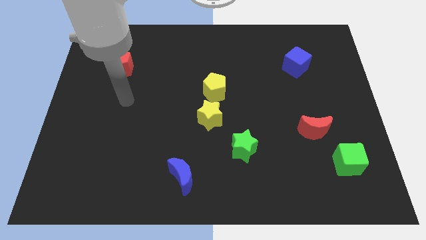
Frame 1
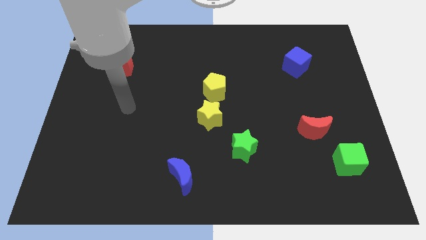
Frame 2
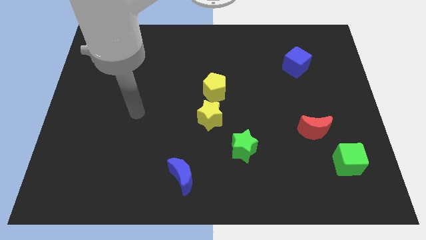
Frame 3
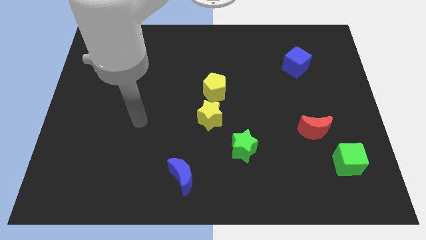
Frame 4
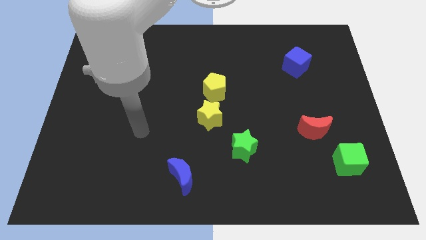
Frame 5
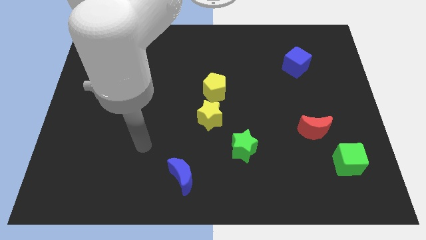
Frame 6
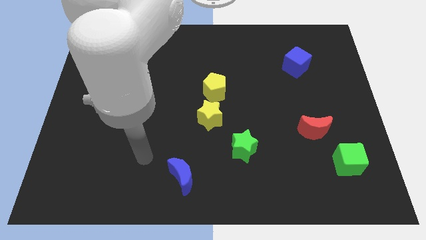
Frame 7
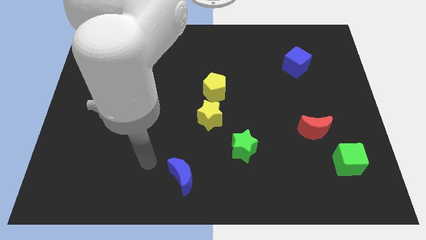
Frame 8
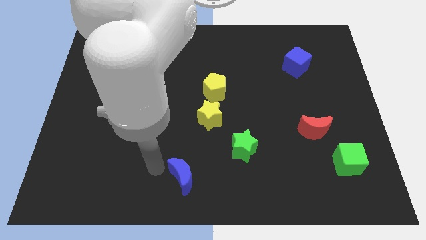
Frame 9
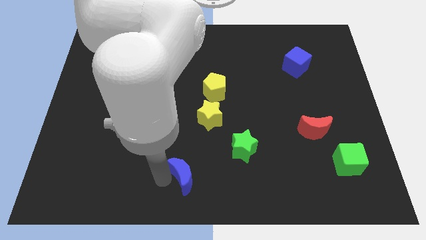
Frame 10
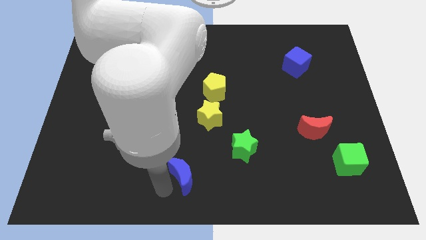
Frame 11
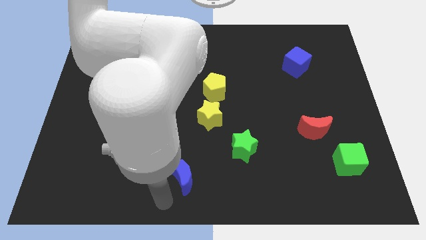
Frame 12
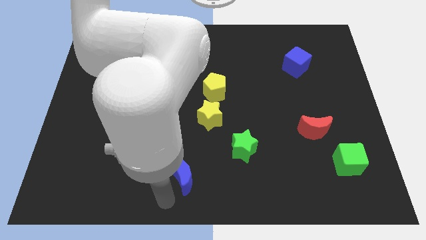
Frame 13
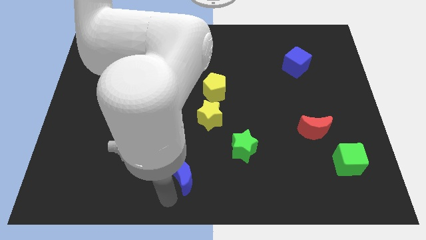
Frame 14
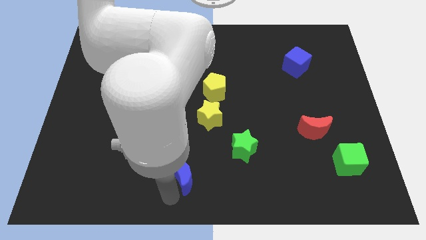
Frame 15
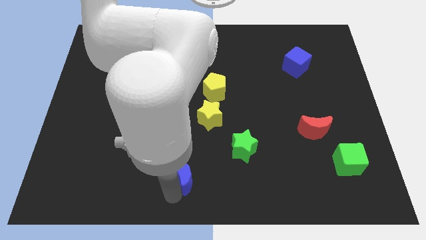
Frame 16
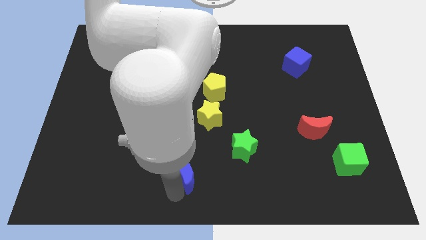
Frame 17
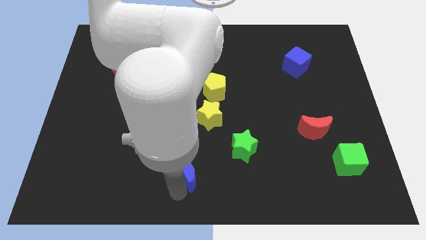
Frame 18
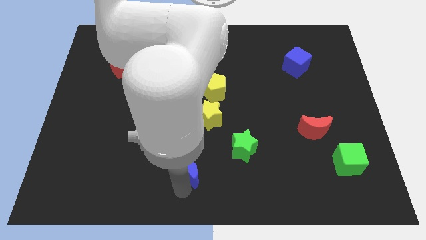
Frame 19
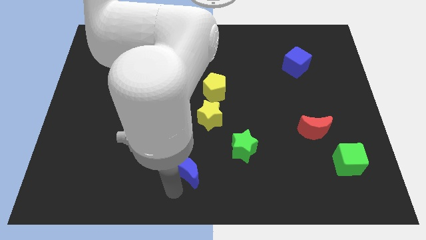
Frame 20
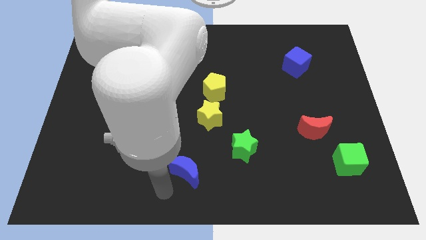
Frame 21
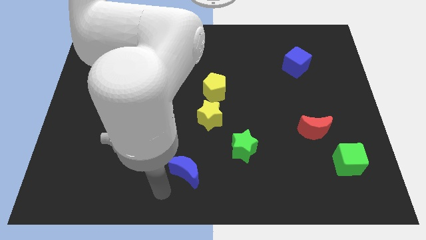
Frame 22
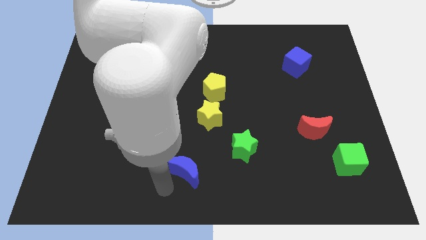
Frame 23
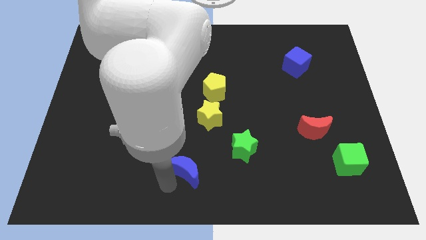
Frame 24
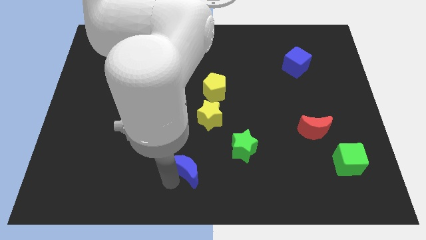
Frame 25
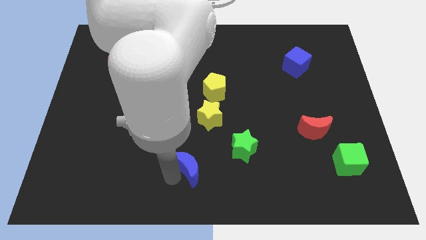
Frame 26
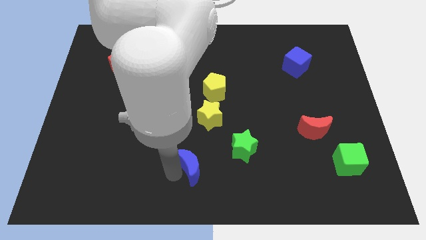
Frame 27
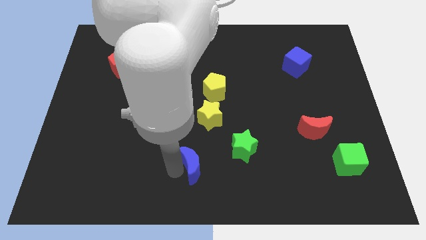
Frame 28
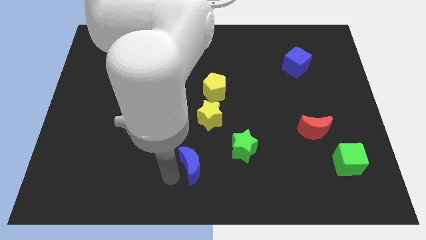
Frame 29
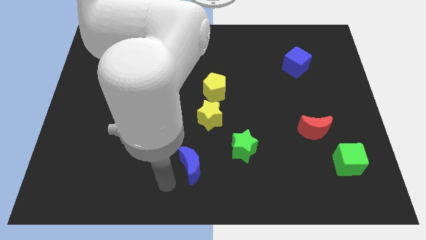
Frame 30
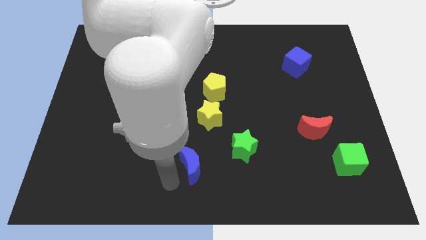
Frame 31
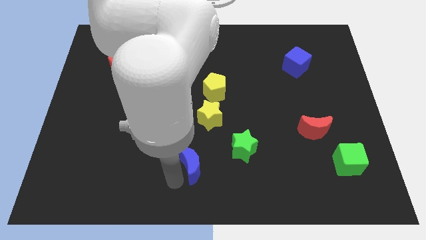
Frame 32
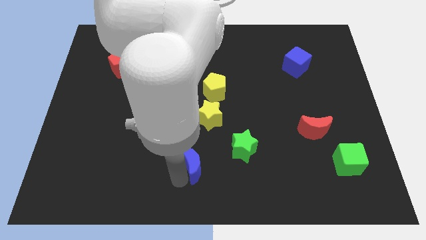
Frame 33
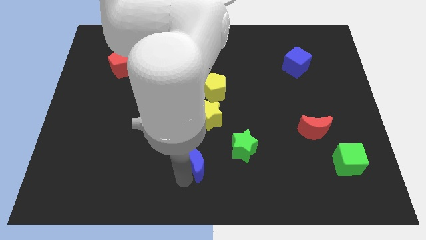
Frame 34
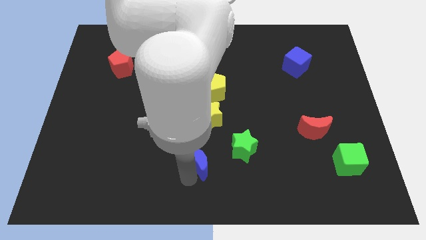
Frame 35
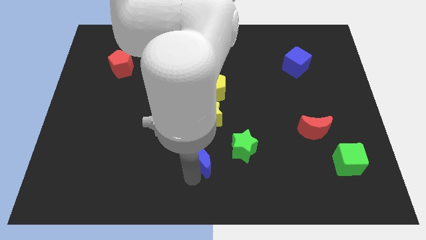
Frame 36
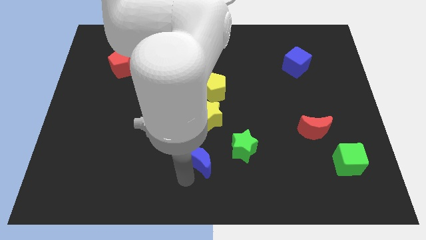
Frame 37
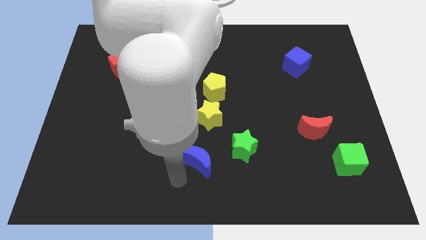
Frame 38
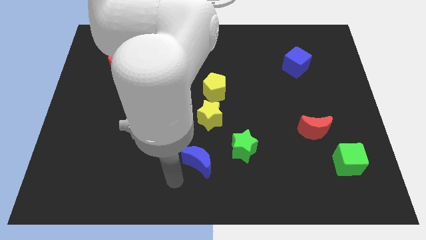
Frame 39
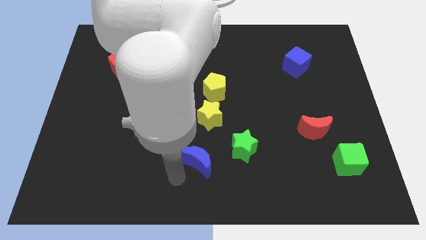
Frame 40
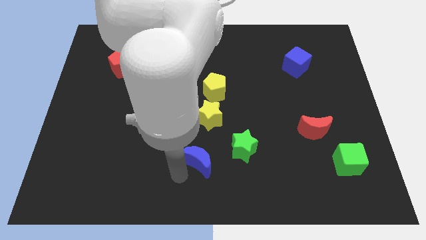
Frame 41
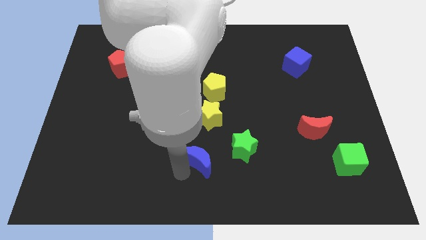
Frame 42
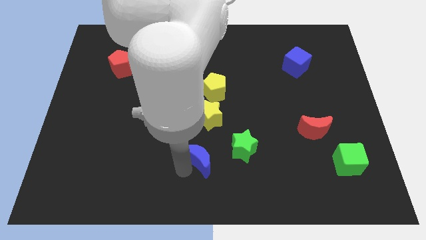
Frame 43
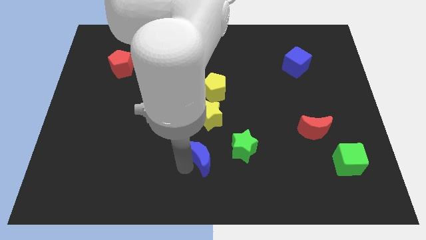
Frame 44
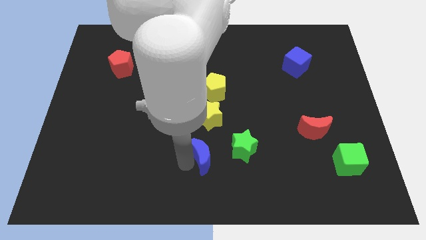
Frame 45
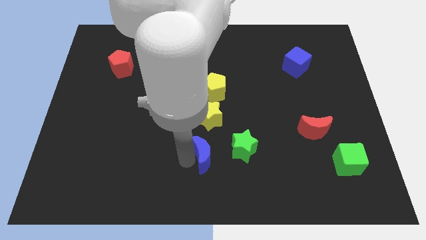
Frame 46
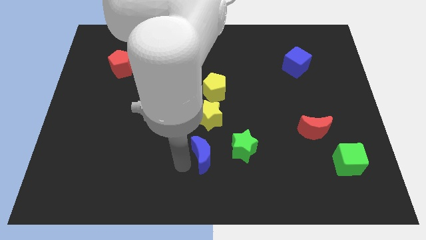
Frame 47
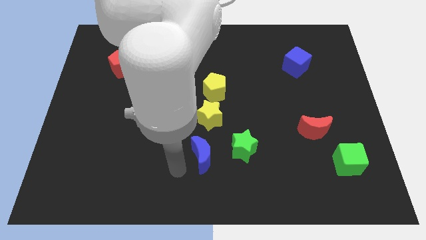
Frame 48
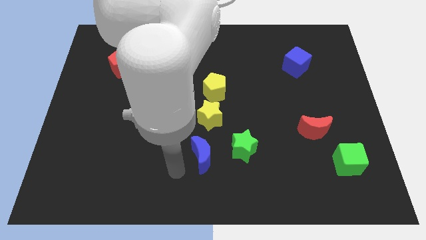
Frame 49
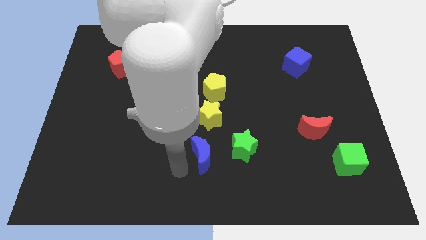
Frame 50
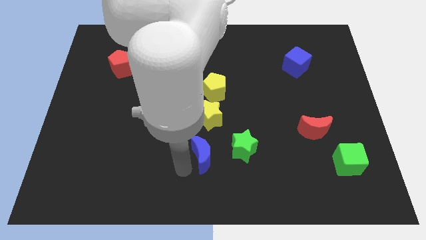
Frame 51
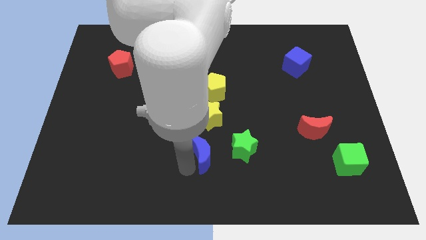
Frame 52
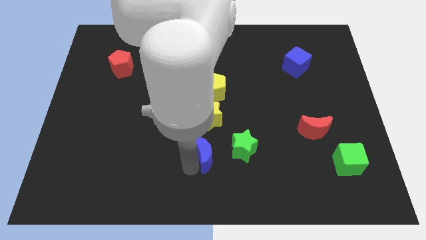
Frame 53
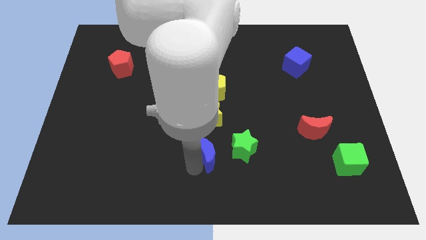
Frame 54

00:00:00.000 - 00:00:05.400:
slide the blue moon up and right somewhat

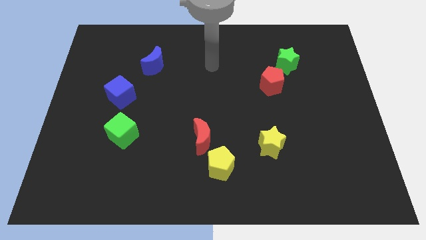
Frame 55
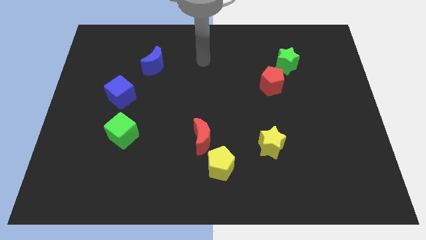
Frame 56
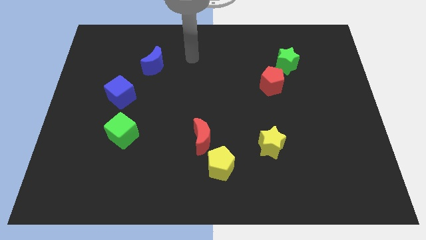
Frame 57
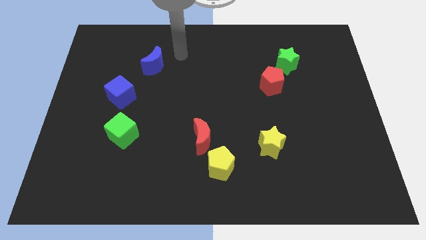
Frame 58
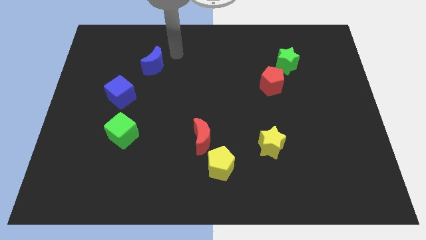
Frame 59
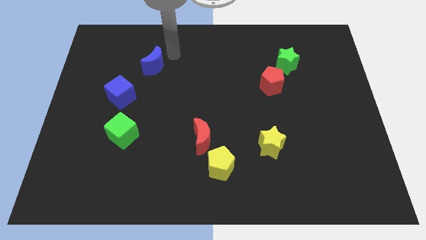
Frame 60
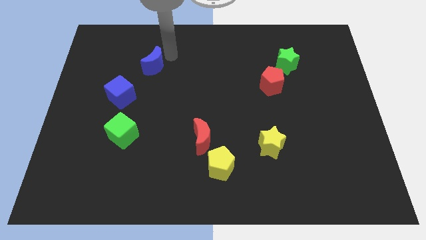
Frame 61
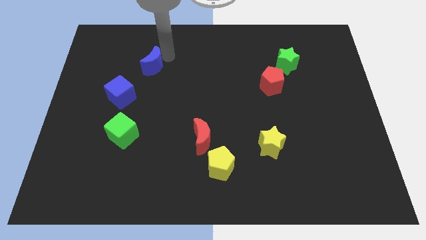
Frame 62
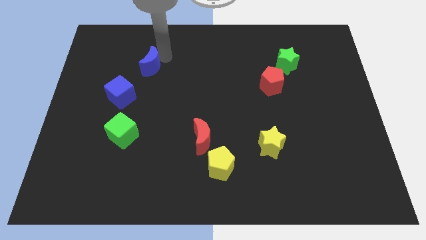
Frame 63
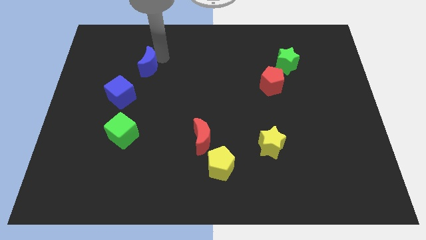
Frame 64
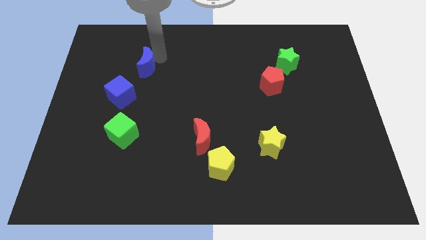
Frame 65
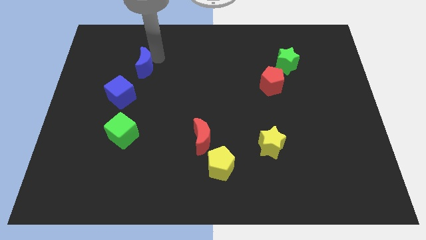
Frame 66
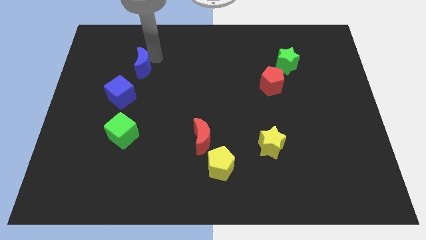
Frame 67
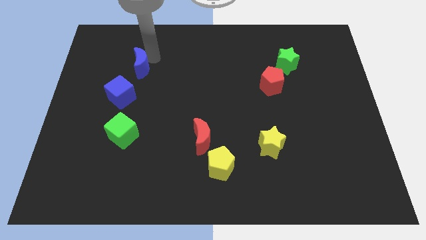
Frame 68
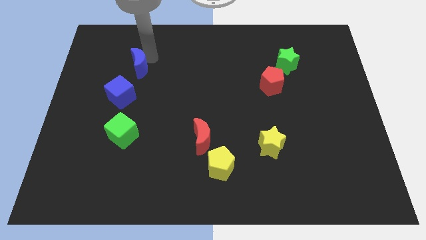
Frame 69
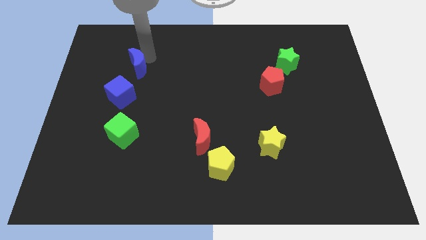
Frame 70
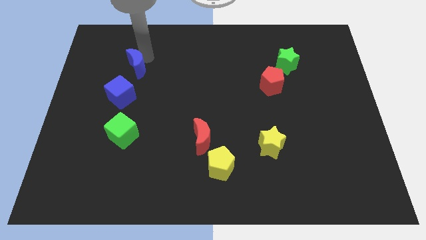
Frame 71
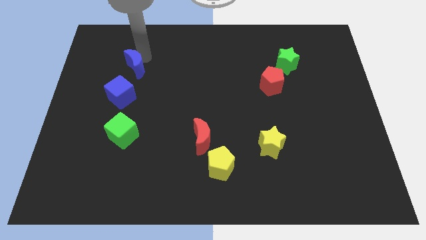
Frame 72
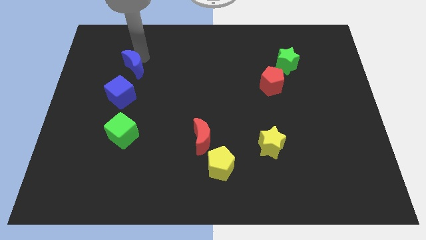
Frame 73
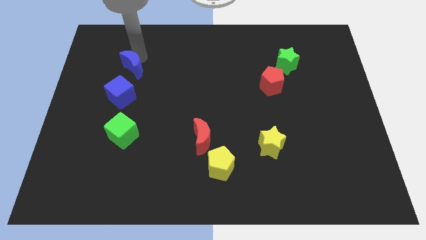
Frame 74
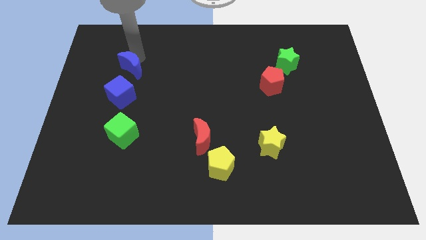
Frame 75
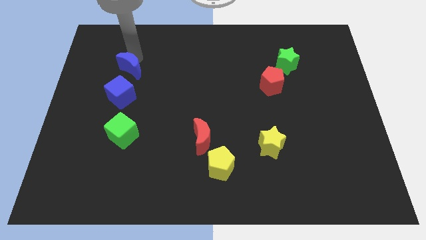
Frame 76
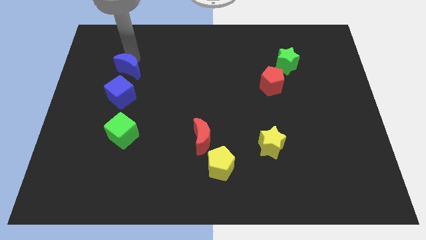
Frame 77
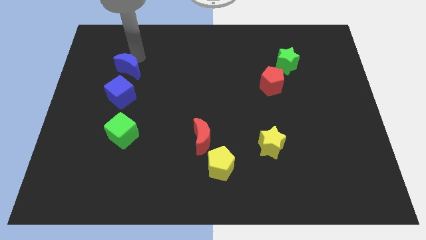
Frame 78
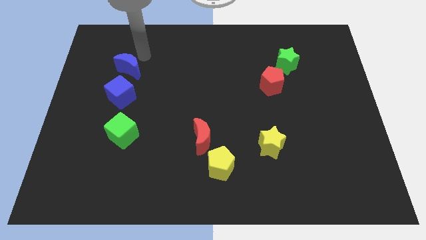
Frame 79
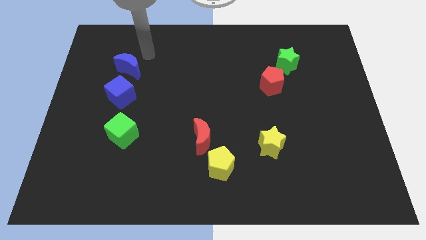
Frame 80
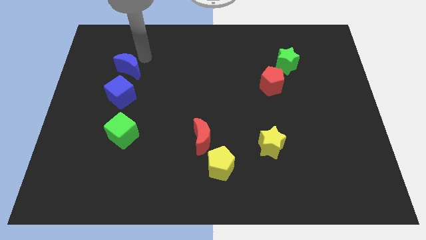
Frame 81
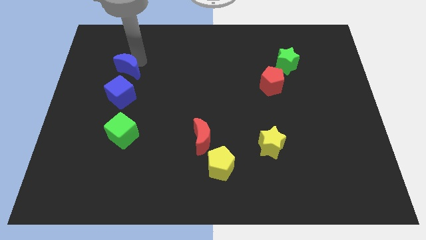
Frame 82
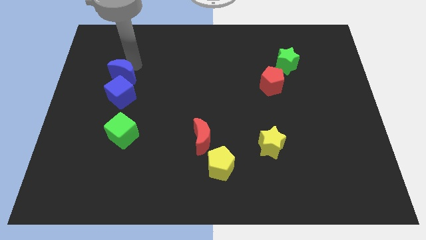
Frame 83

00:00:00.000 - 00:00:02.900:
move the blue moon somewhat down and to the left diagonally
